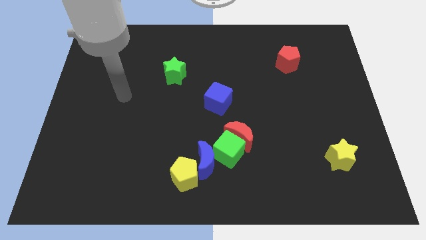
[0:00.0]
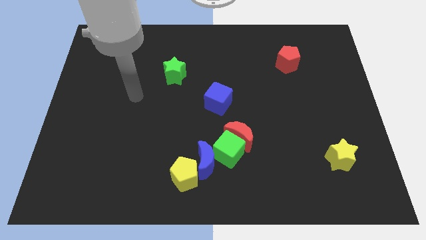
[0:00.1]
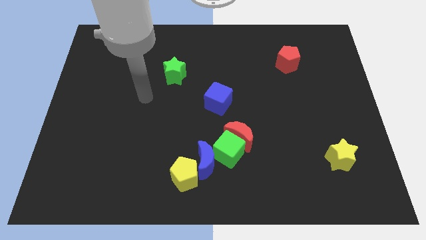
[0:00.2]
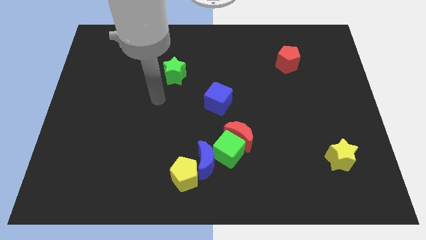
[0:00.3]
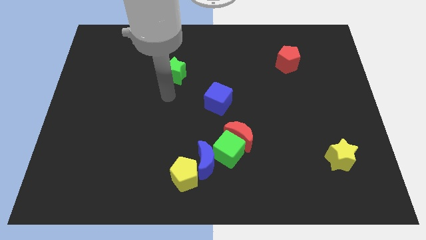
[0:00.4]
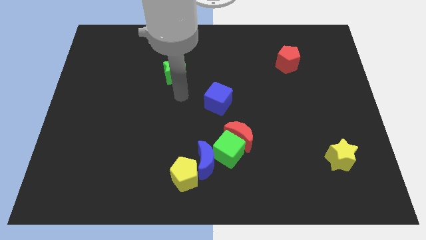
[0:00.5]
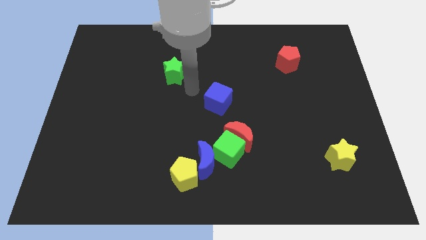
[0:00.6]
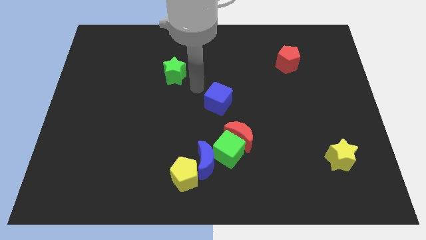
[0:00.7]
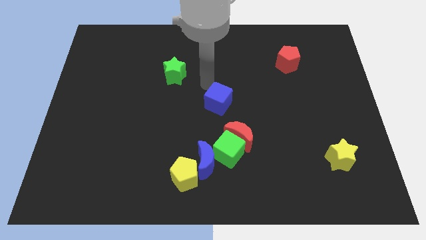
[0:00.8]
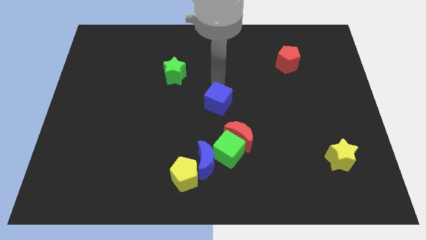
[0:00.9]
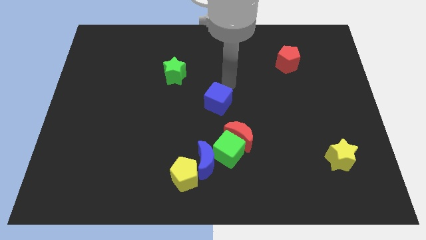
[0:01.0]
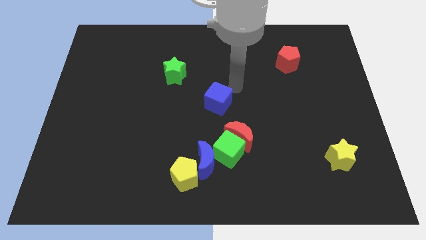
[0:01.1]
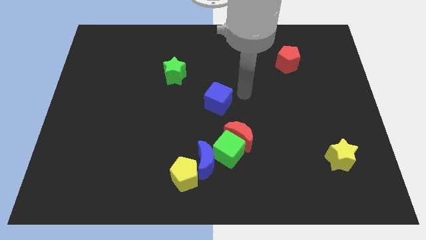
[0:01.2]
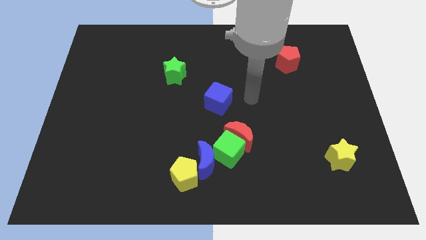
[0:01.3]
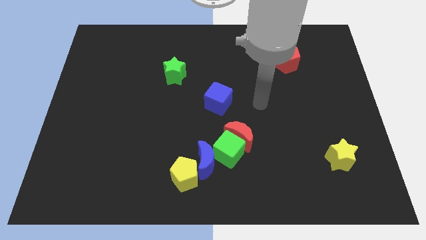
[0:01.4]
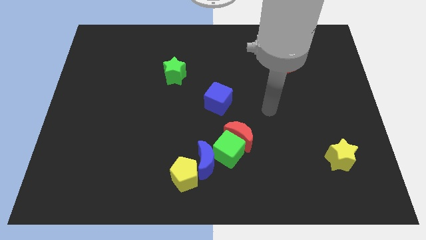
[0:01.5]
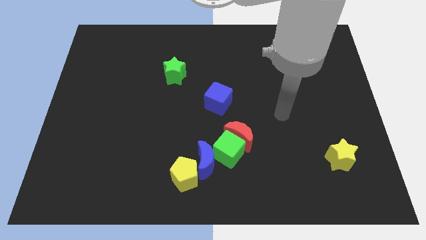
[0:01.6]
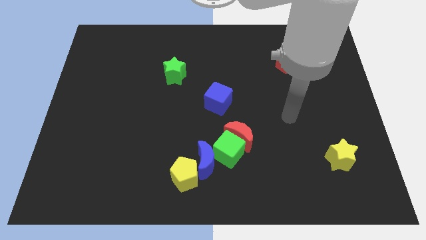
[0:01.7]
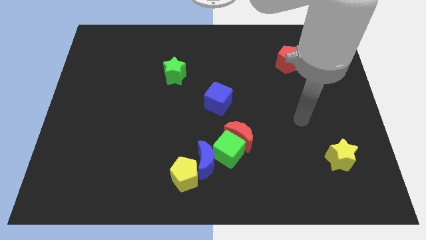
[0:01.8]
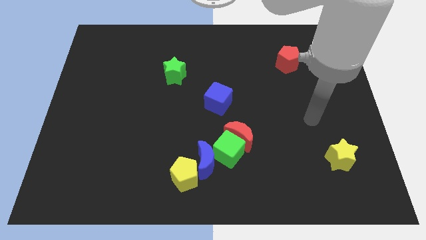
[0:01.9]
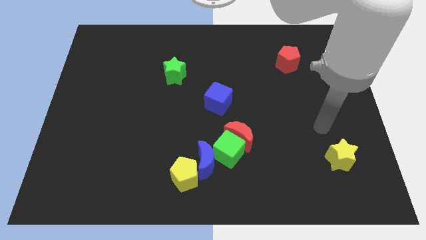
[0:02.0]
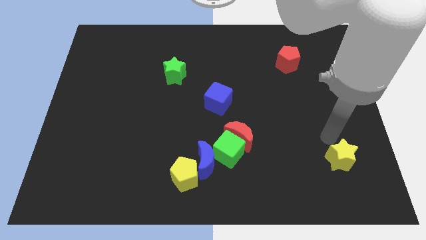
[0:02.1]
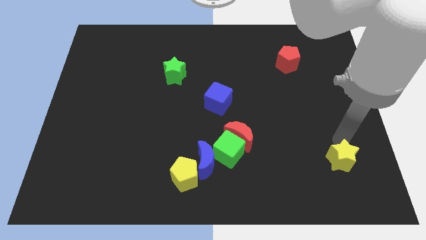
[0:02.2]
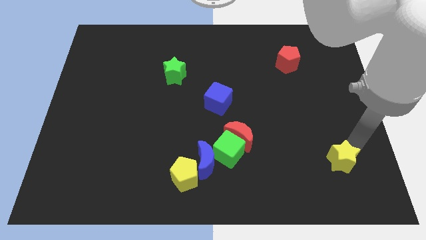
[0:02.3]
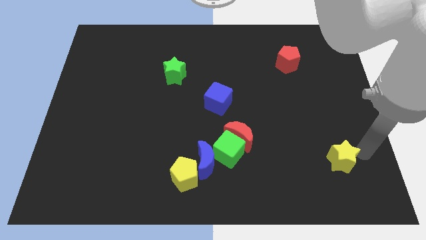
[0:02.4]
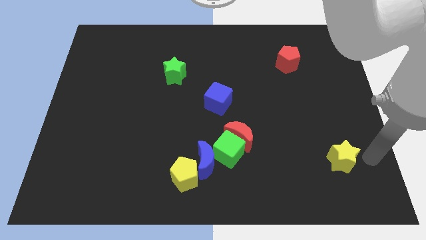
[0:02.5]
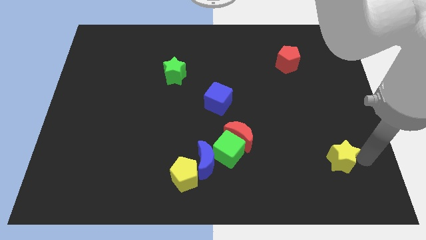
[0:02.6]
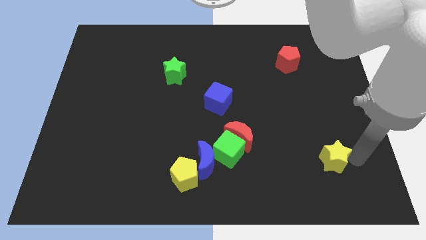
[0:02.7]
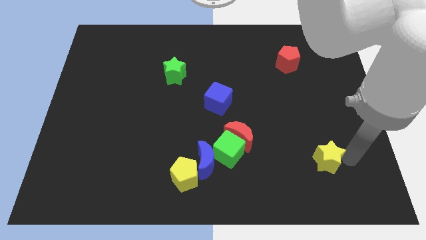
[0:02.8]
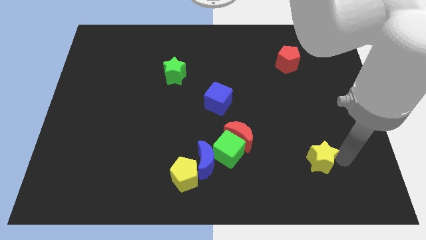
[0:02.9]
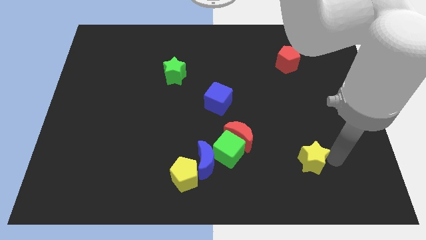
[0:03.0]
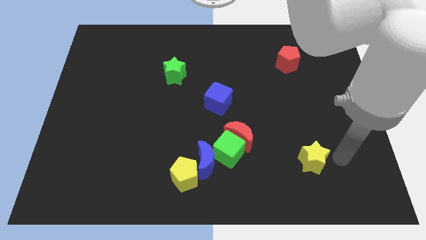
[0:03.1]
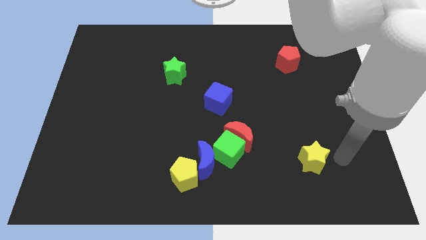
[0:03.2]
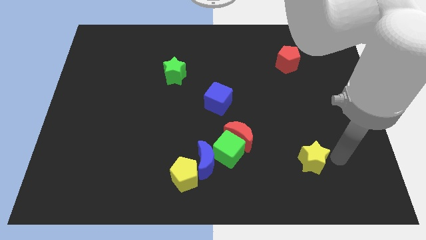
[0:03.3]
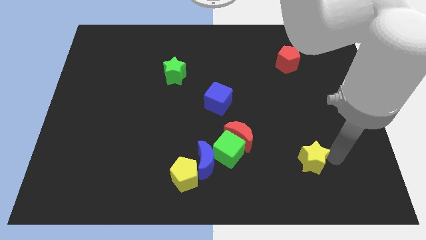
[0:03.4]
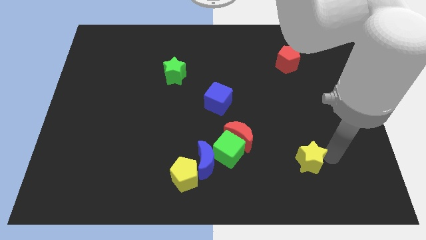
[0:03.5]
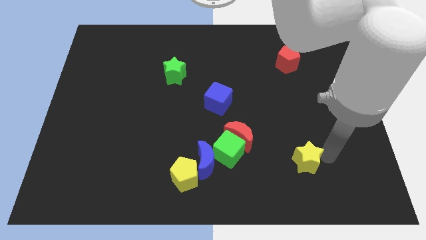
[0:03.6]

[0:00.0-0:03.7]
move the yellow star to the left somewhat

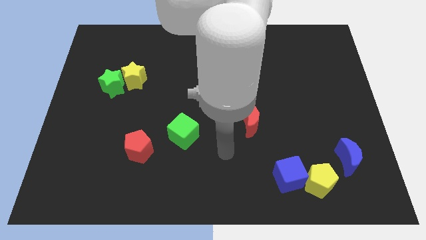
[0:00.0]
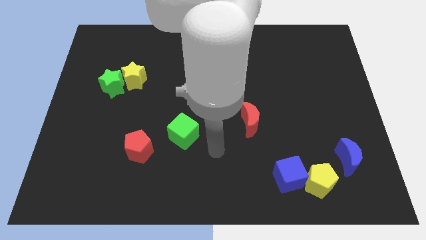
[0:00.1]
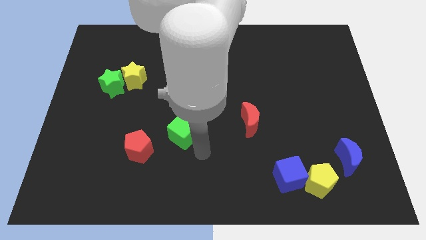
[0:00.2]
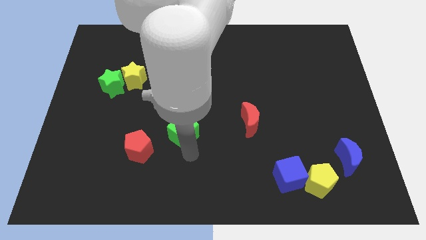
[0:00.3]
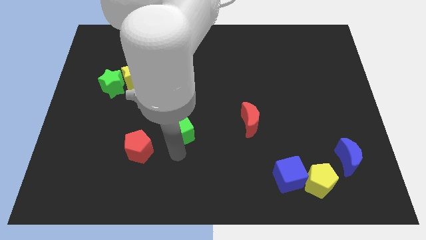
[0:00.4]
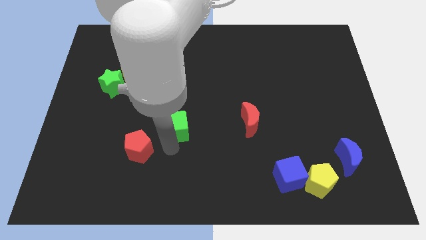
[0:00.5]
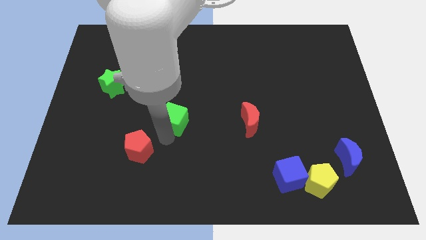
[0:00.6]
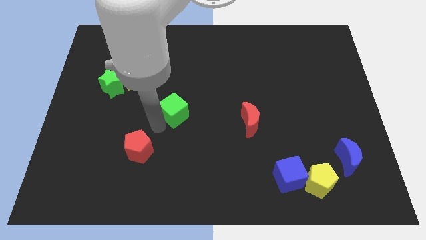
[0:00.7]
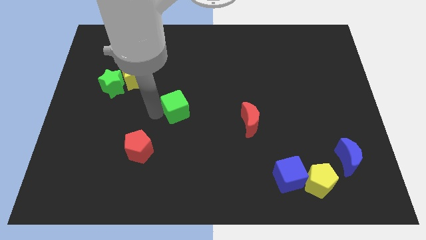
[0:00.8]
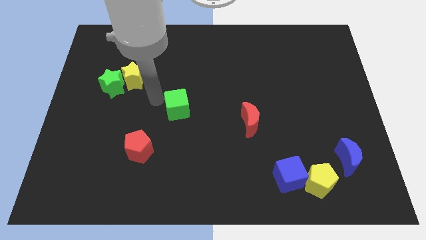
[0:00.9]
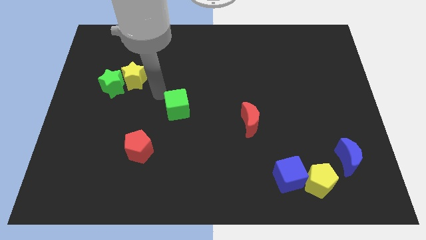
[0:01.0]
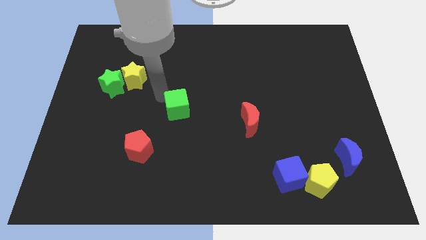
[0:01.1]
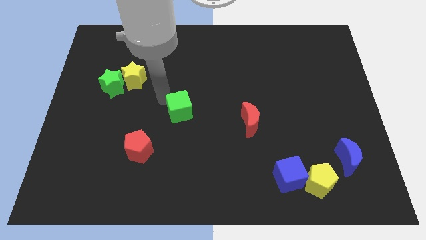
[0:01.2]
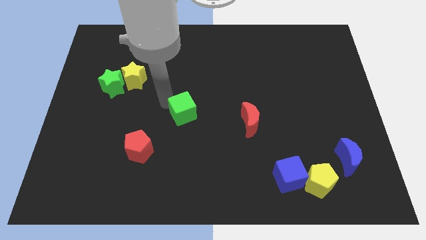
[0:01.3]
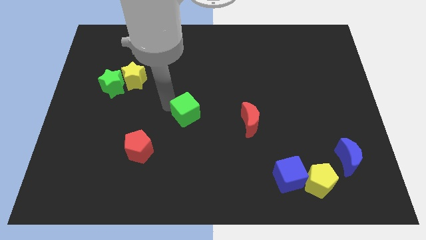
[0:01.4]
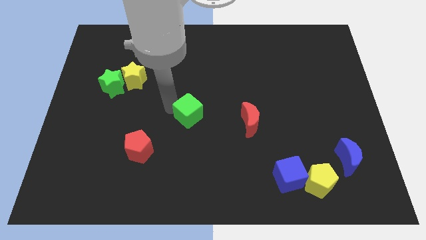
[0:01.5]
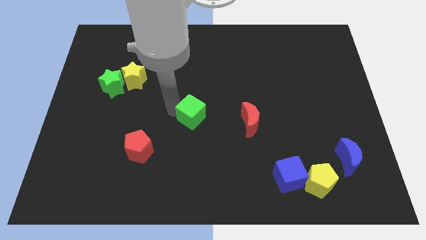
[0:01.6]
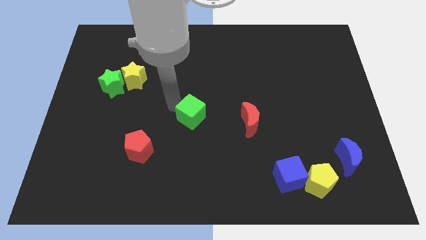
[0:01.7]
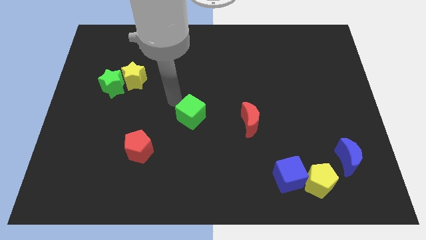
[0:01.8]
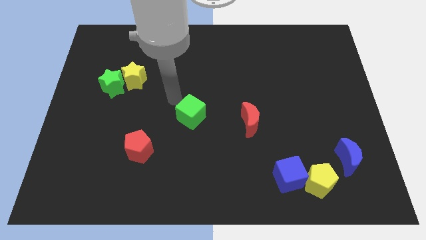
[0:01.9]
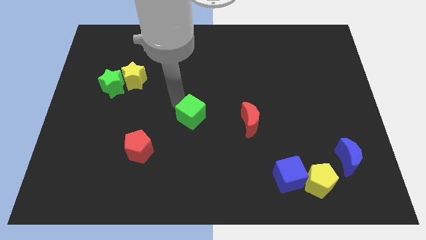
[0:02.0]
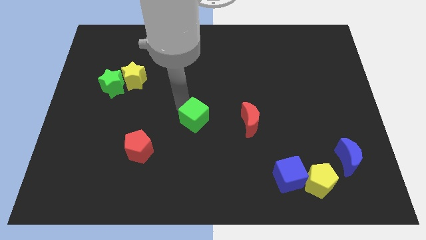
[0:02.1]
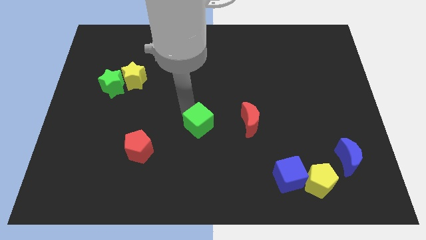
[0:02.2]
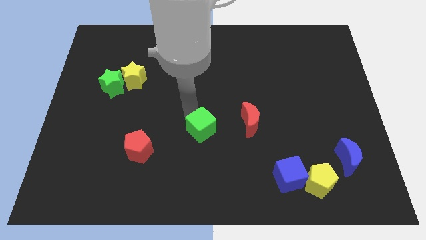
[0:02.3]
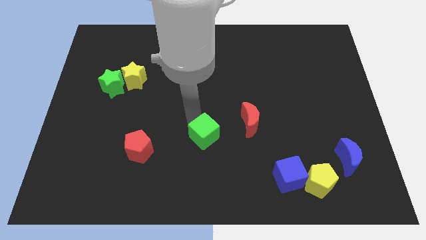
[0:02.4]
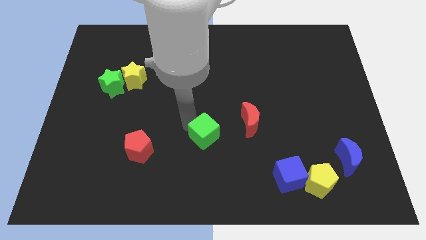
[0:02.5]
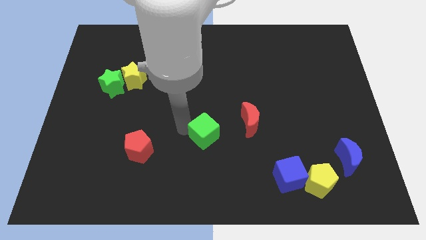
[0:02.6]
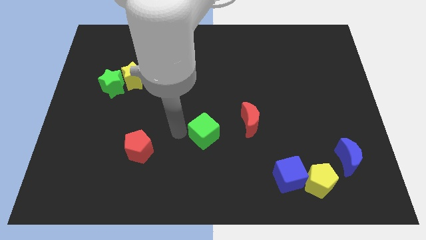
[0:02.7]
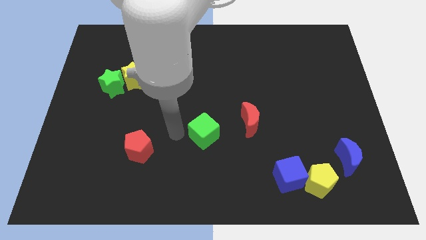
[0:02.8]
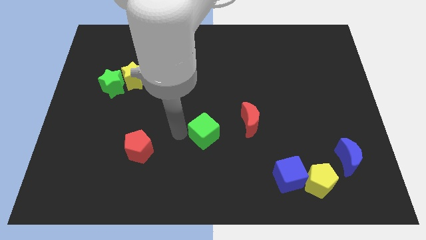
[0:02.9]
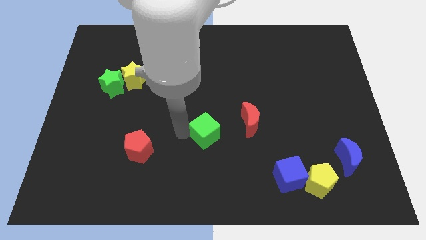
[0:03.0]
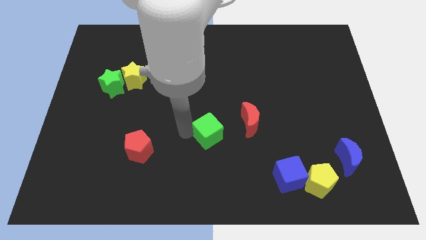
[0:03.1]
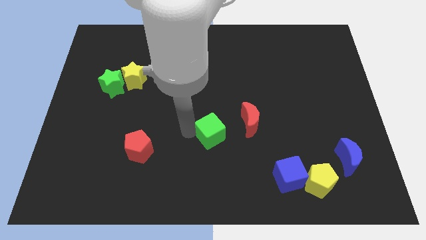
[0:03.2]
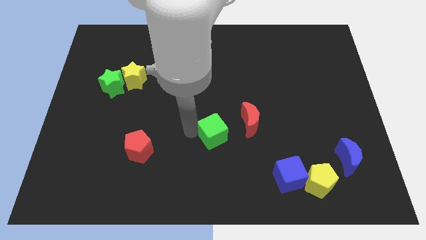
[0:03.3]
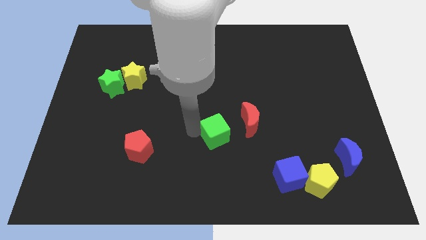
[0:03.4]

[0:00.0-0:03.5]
slide the green cube to the right somewhat

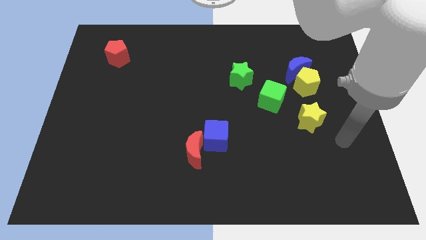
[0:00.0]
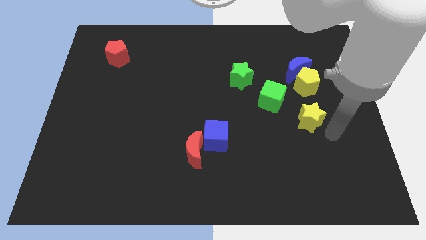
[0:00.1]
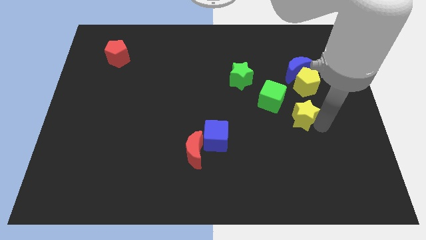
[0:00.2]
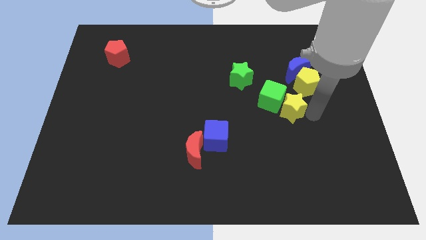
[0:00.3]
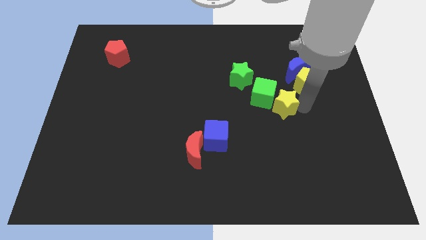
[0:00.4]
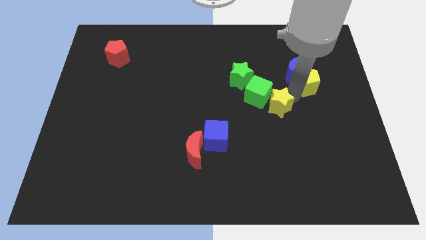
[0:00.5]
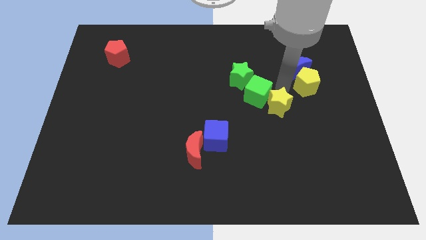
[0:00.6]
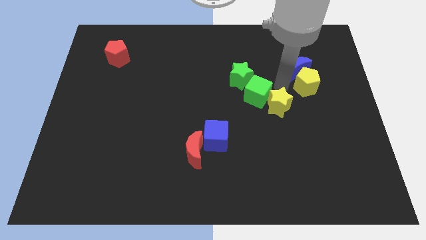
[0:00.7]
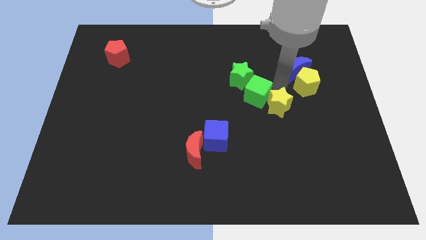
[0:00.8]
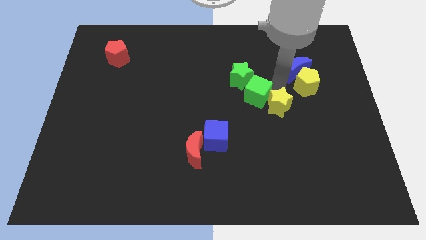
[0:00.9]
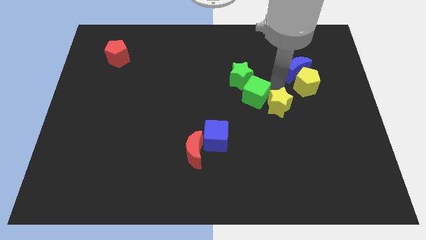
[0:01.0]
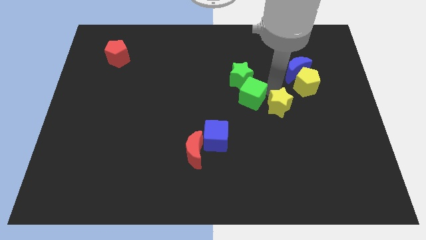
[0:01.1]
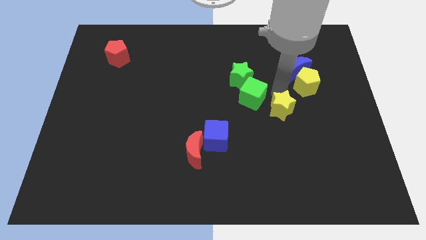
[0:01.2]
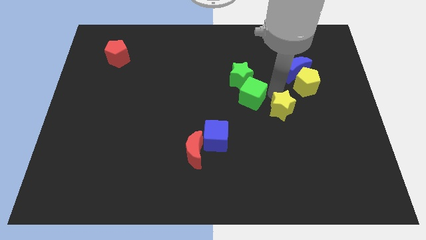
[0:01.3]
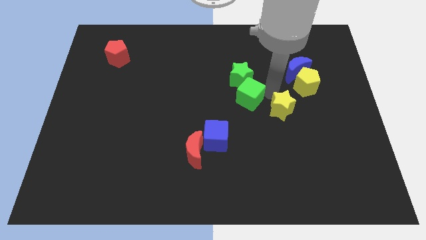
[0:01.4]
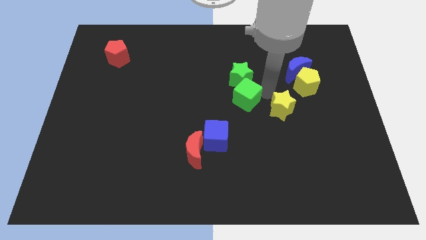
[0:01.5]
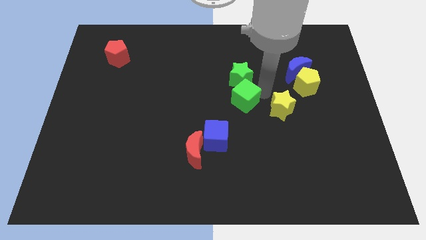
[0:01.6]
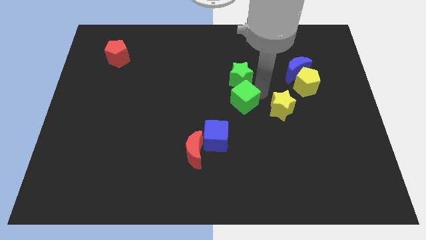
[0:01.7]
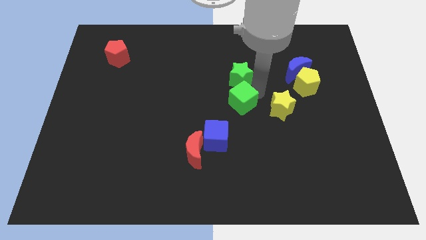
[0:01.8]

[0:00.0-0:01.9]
push the green cube to the left a bit
